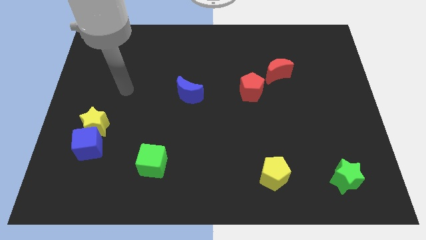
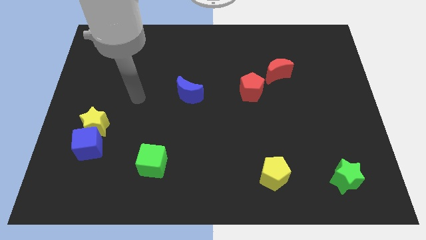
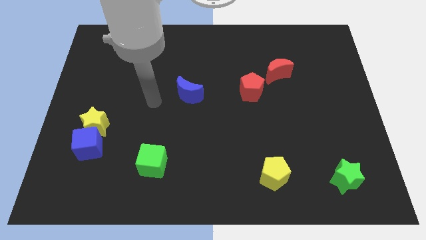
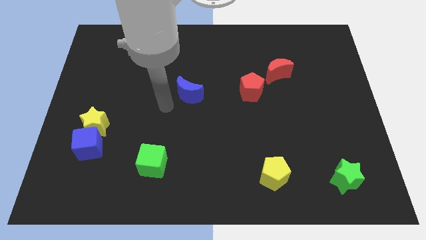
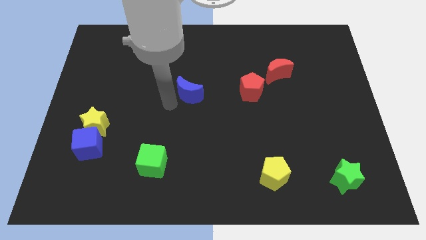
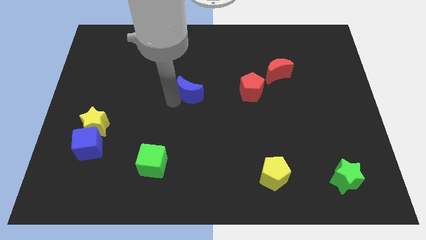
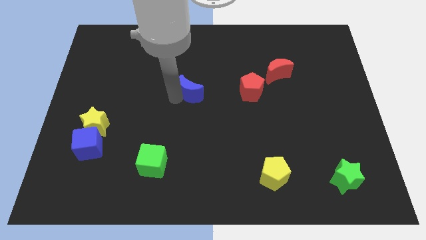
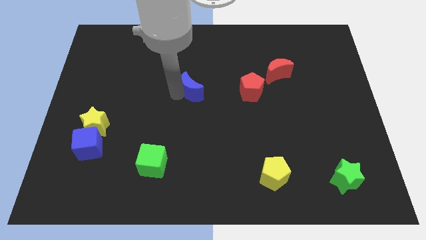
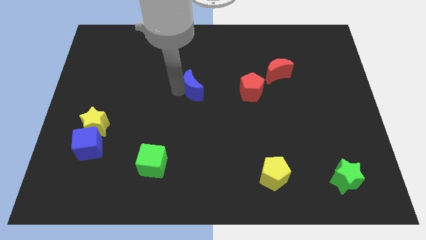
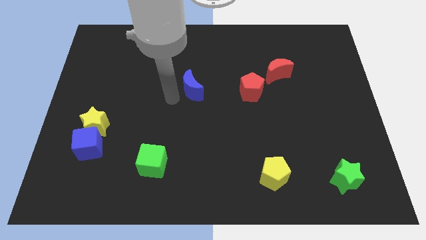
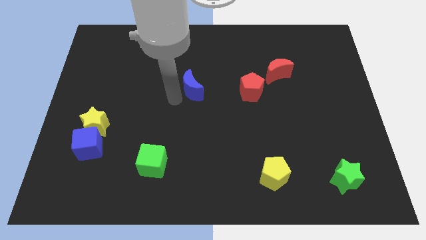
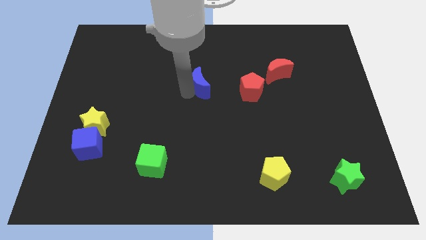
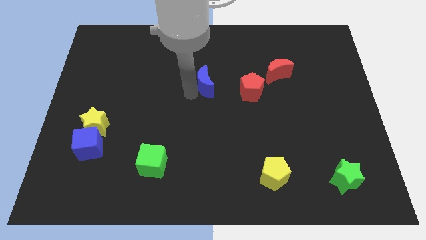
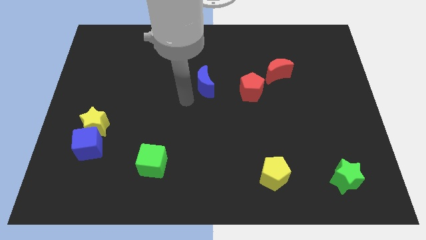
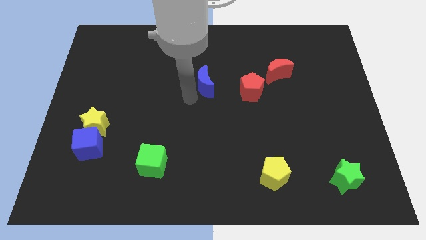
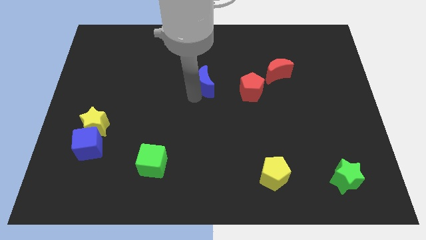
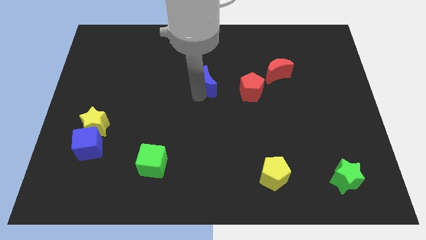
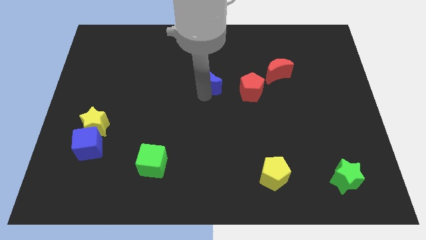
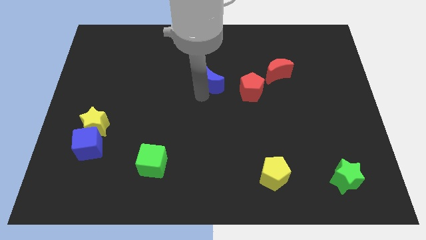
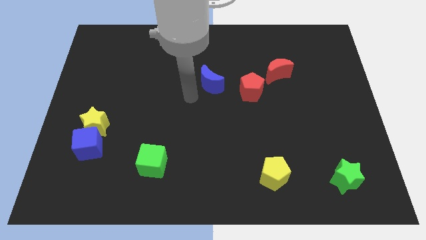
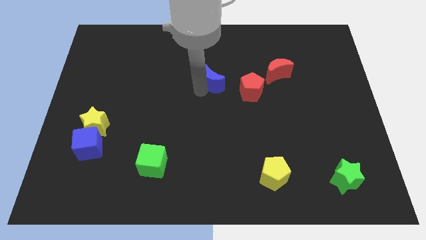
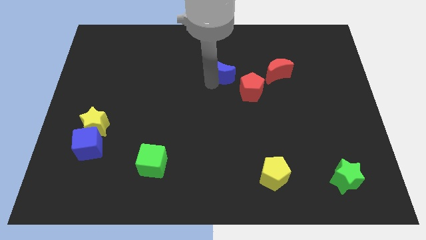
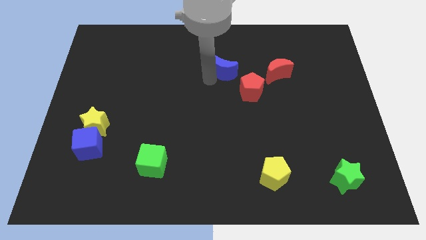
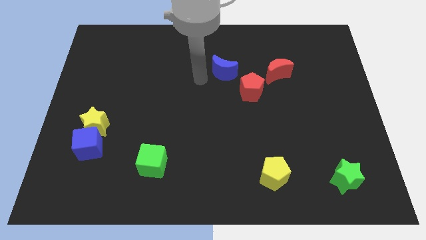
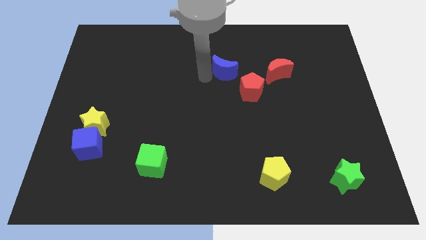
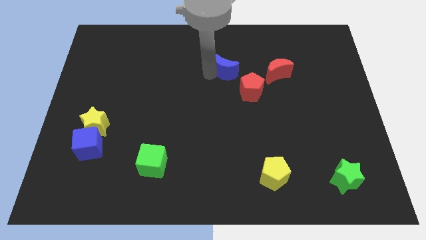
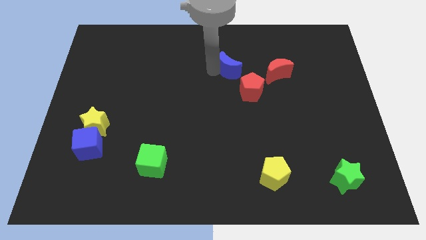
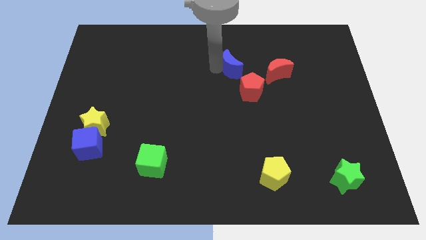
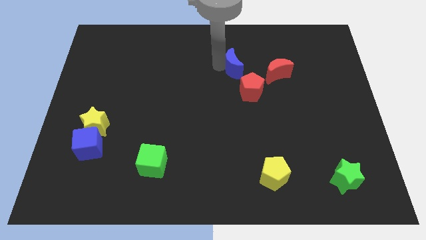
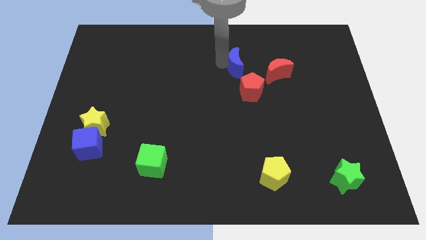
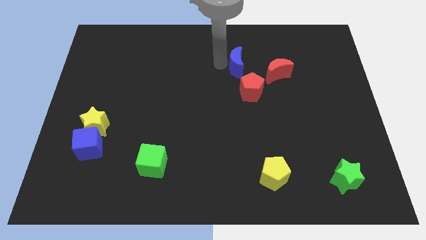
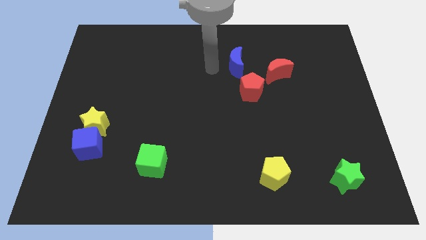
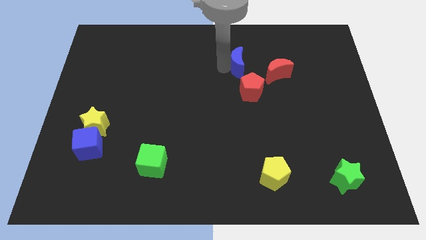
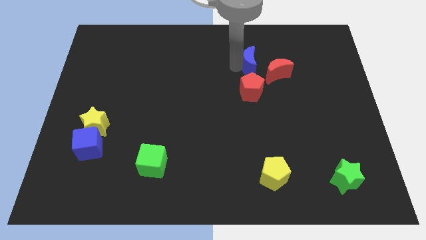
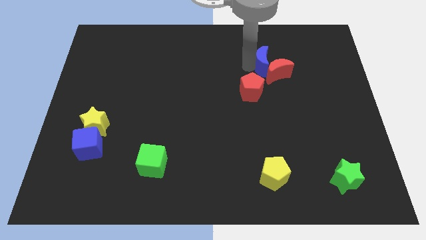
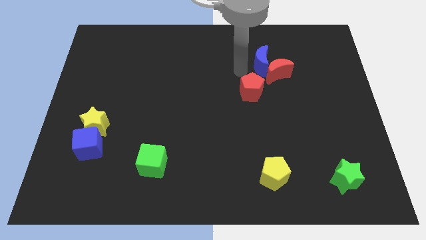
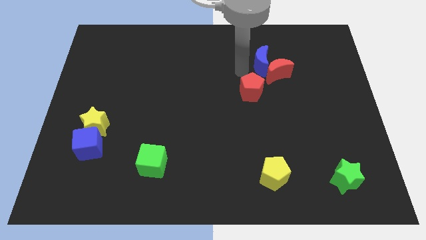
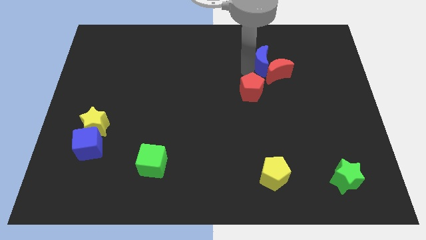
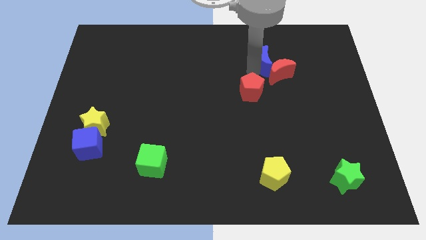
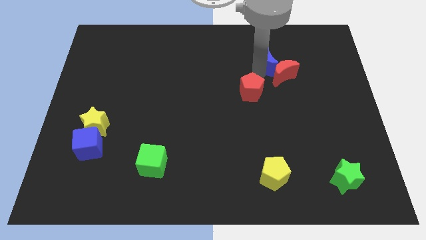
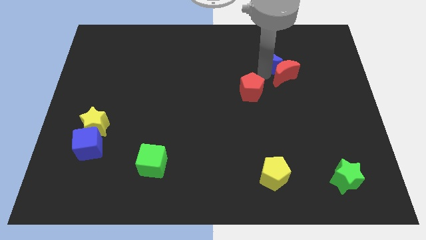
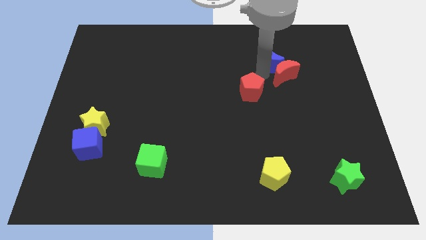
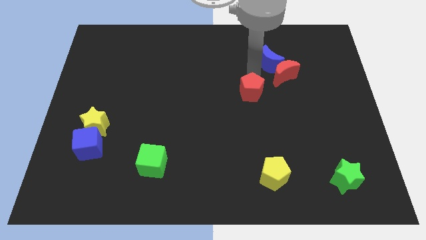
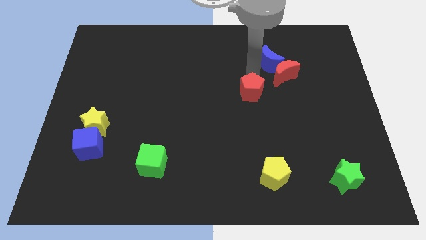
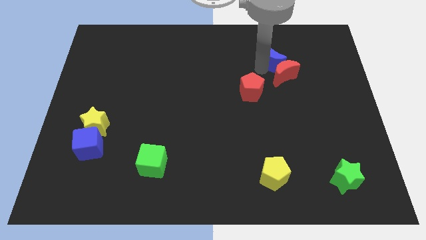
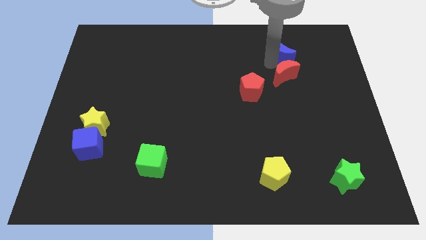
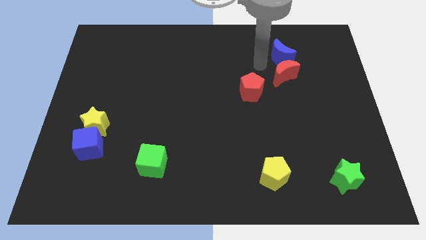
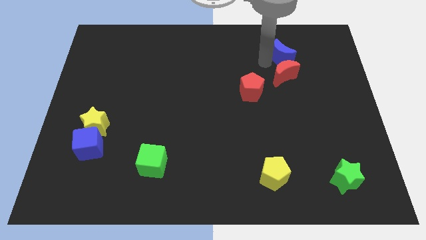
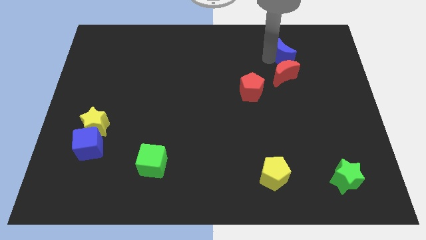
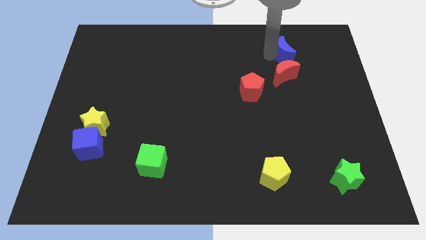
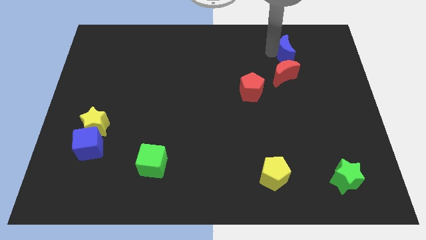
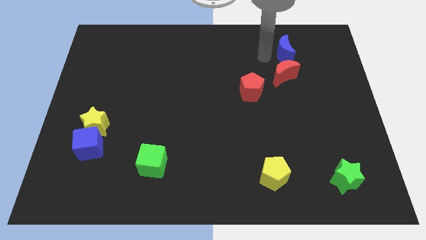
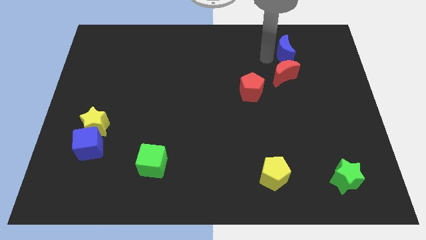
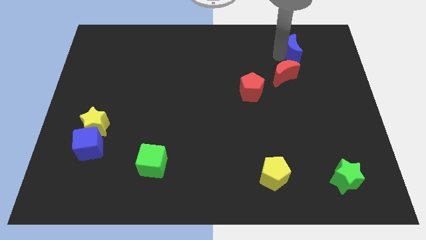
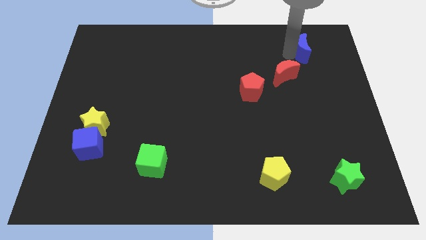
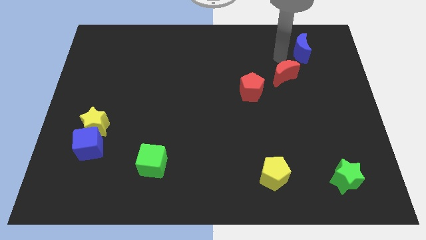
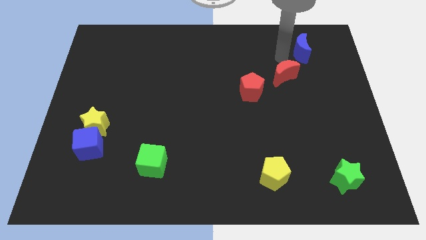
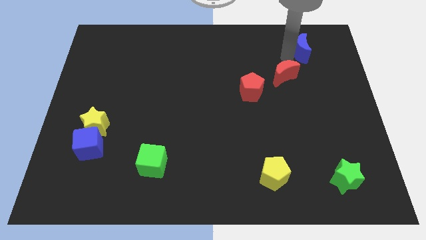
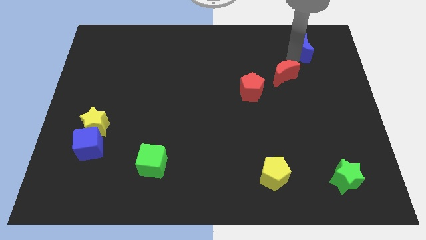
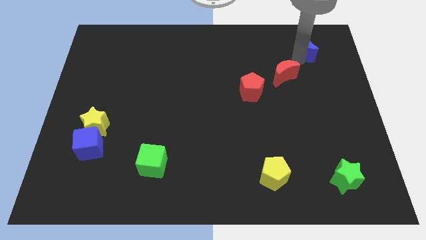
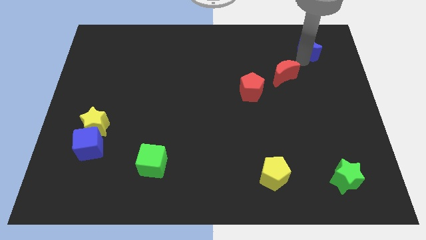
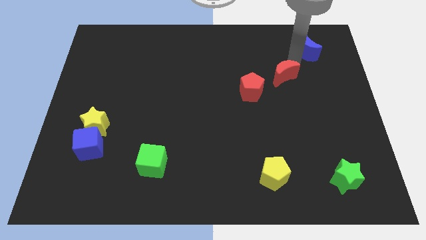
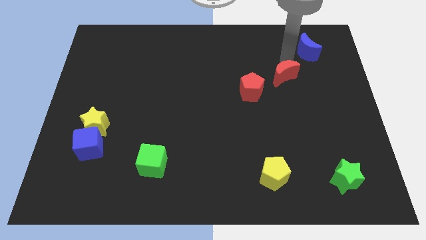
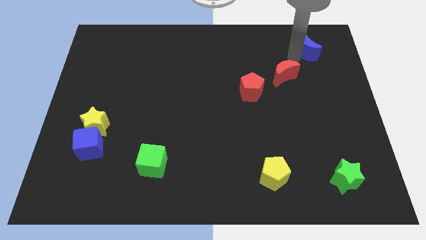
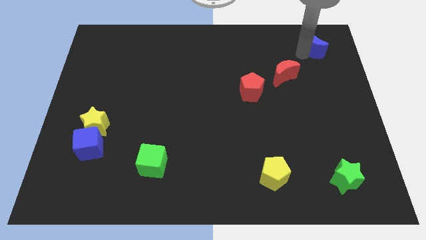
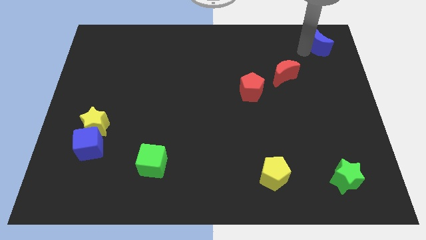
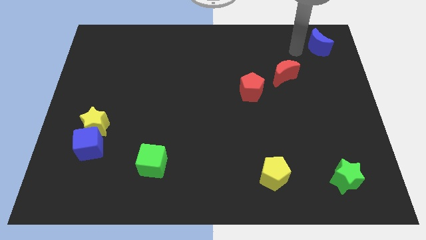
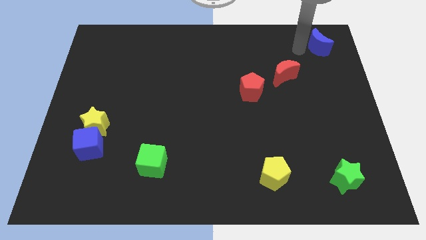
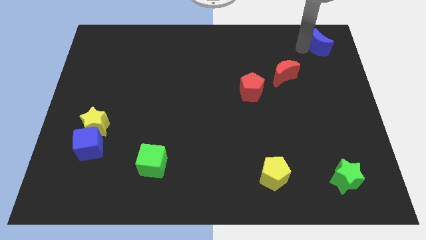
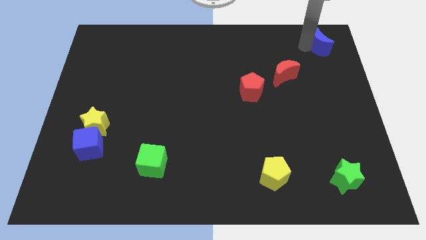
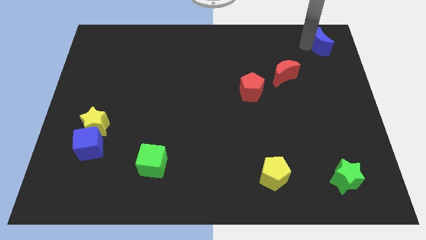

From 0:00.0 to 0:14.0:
move the blue moon to the top right corner
